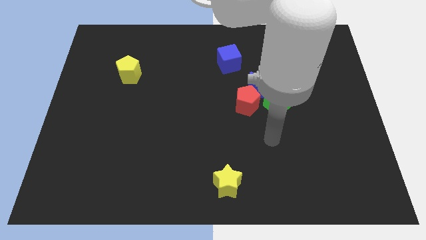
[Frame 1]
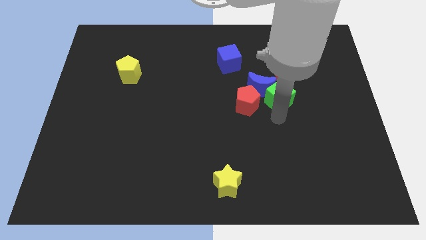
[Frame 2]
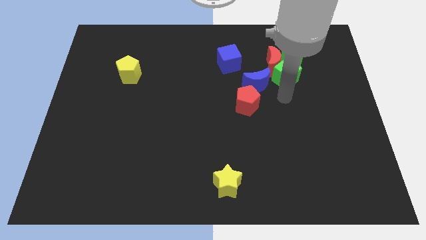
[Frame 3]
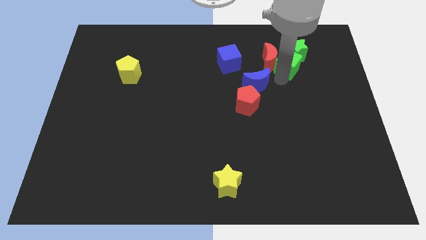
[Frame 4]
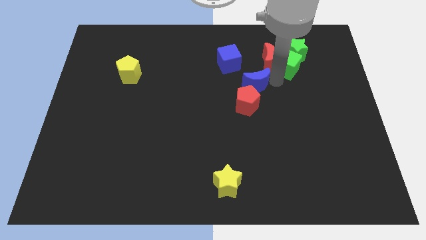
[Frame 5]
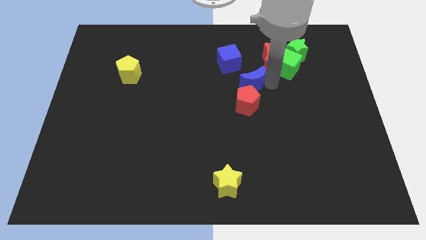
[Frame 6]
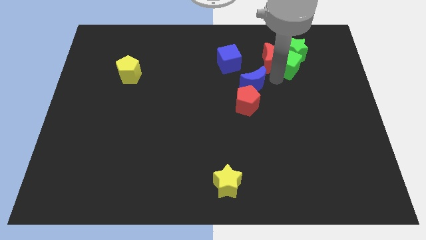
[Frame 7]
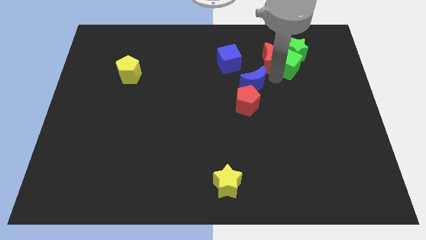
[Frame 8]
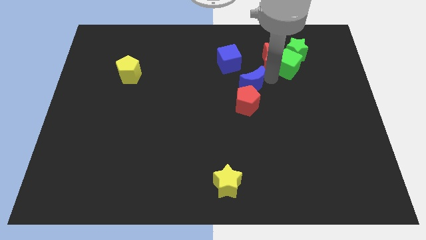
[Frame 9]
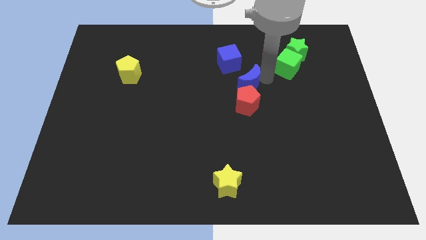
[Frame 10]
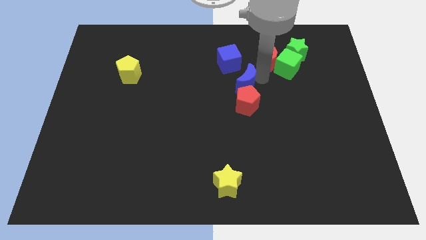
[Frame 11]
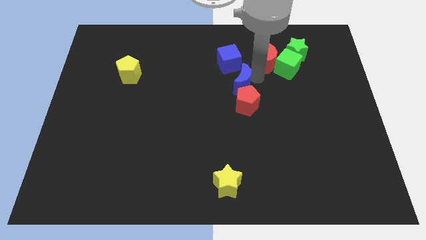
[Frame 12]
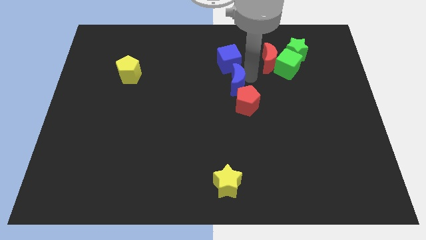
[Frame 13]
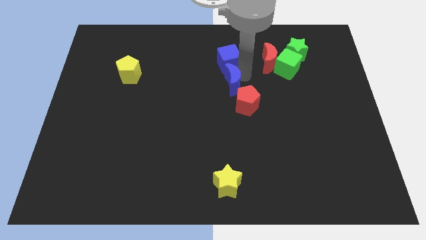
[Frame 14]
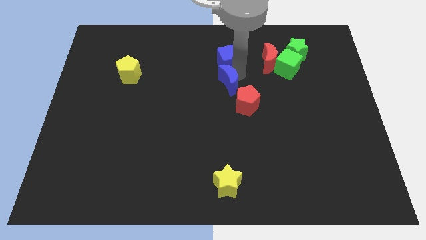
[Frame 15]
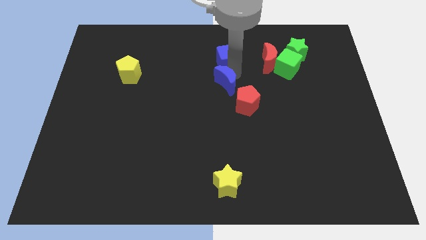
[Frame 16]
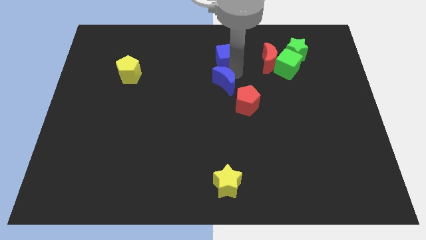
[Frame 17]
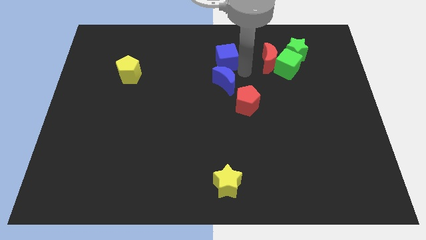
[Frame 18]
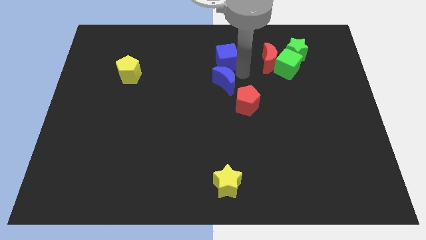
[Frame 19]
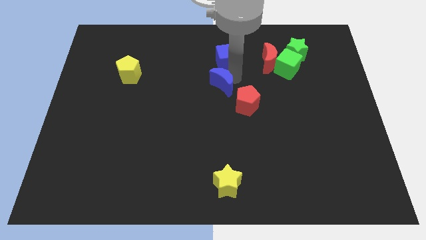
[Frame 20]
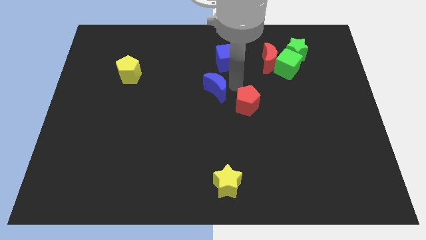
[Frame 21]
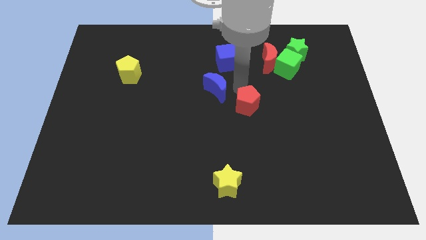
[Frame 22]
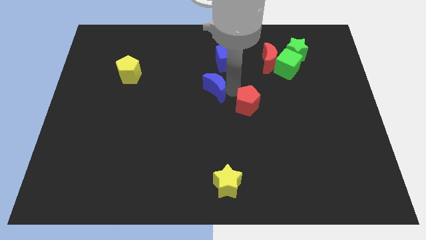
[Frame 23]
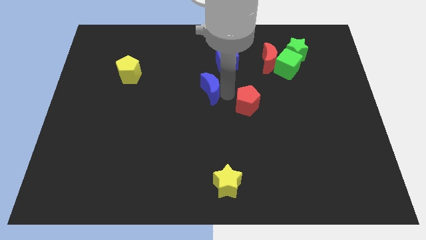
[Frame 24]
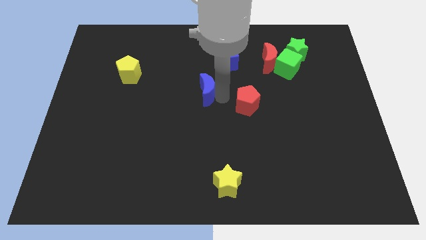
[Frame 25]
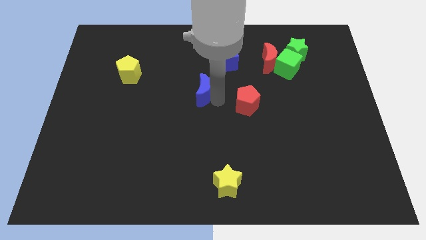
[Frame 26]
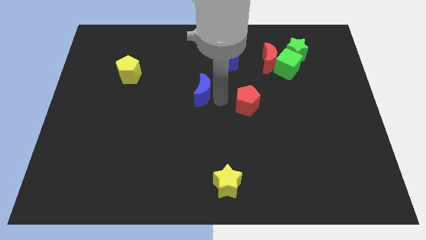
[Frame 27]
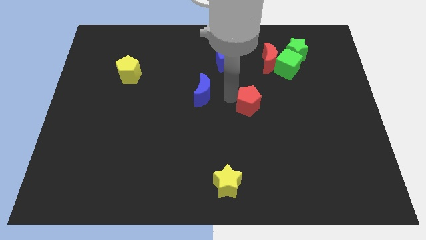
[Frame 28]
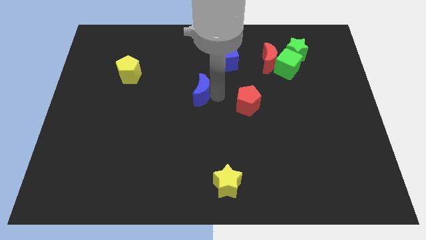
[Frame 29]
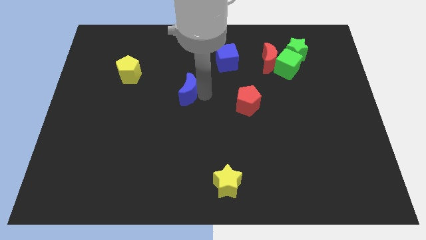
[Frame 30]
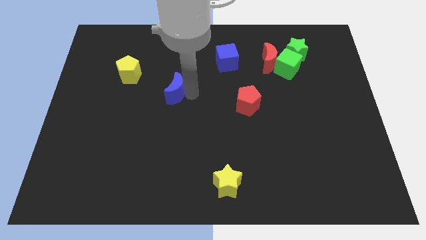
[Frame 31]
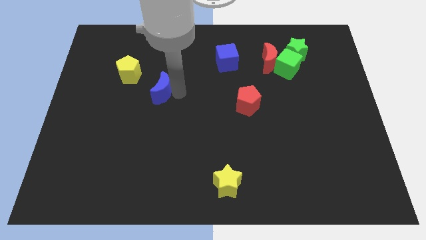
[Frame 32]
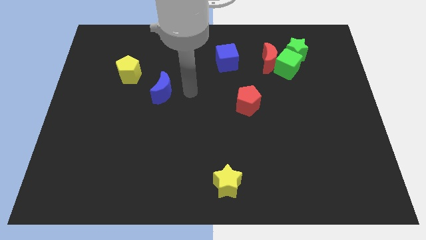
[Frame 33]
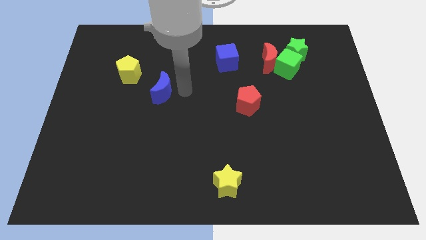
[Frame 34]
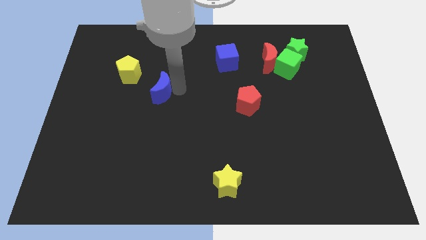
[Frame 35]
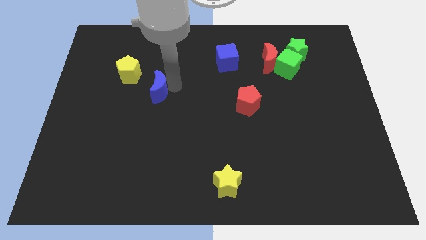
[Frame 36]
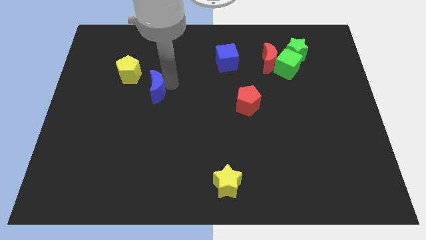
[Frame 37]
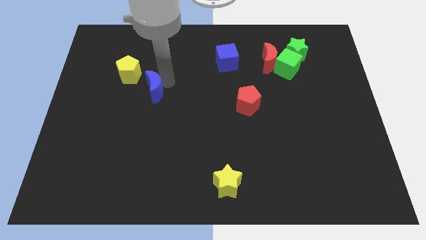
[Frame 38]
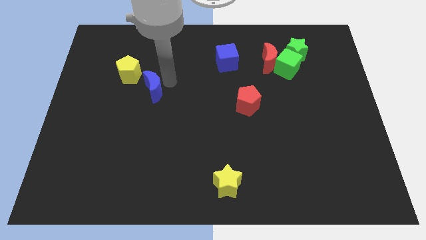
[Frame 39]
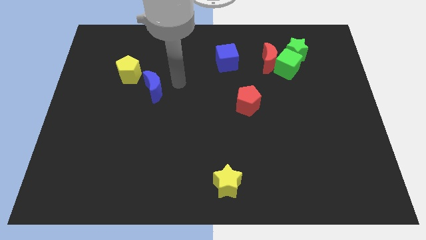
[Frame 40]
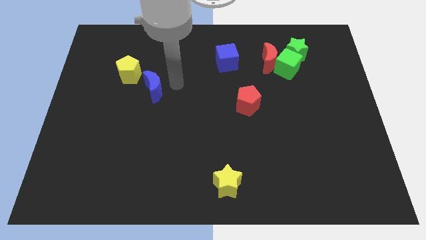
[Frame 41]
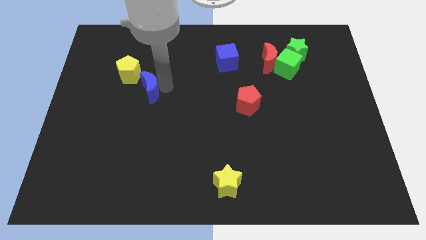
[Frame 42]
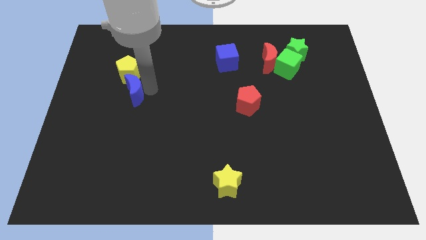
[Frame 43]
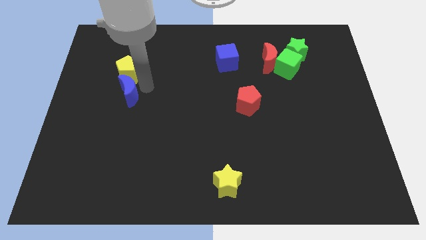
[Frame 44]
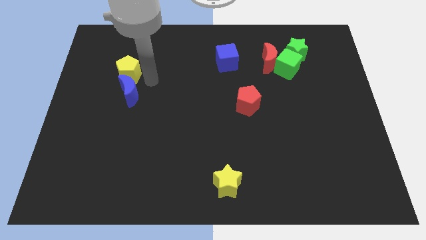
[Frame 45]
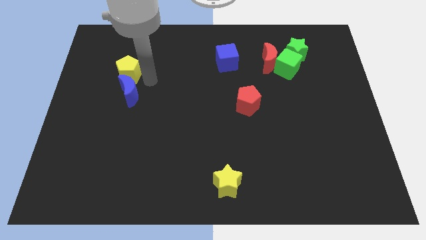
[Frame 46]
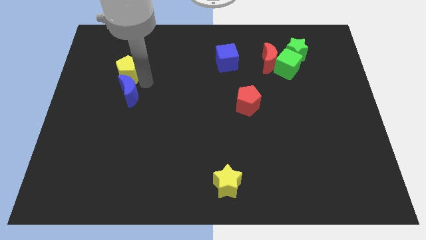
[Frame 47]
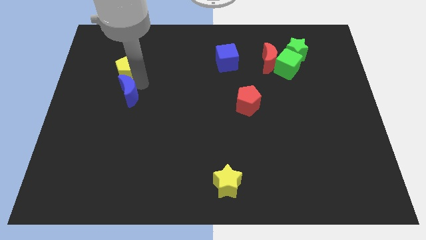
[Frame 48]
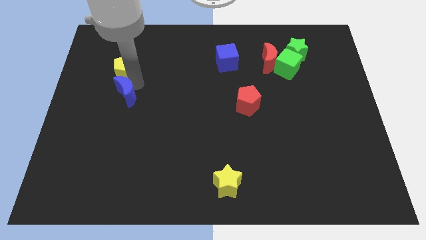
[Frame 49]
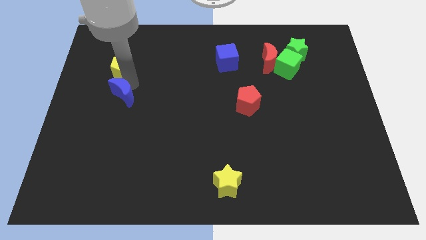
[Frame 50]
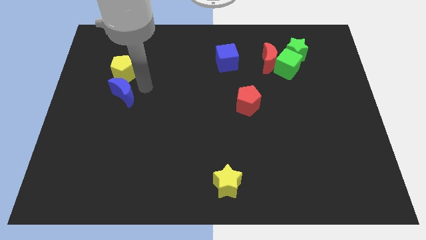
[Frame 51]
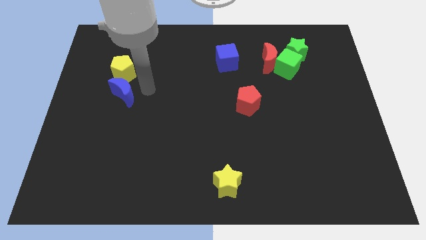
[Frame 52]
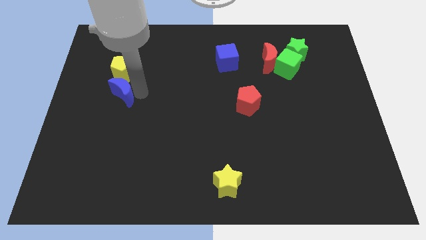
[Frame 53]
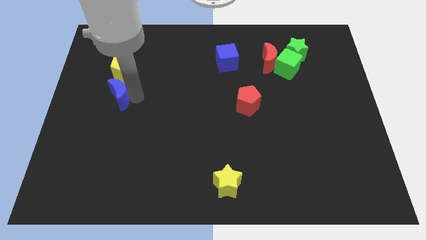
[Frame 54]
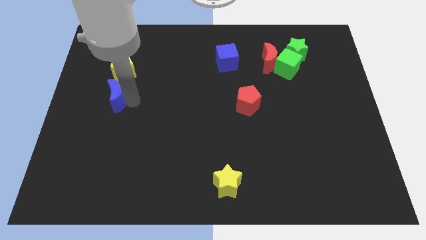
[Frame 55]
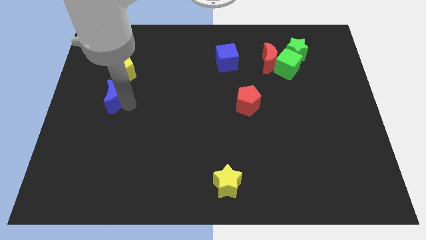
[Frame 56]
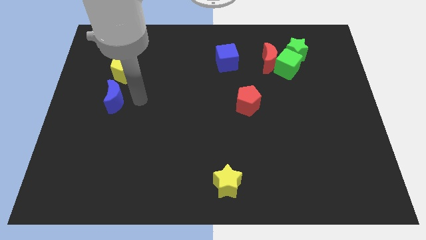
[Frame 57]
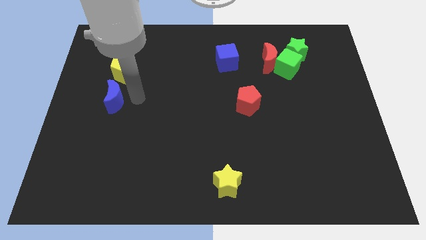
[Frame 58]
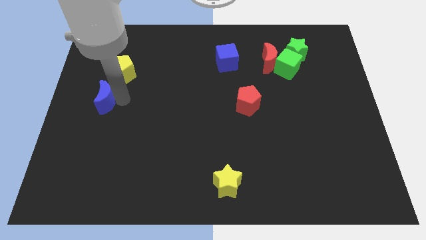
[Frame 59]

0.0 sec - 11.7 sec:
push the blue moon to the left side

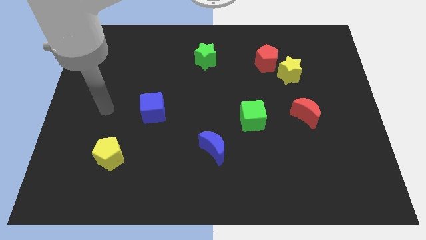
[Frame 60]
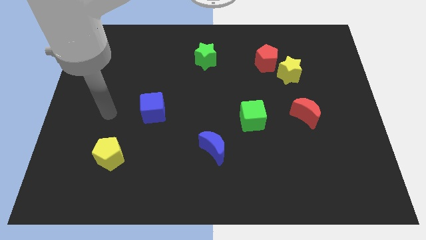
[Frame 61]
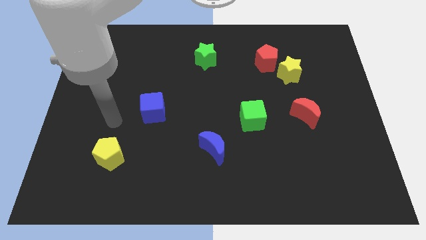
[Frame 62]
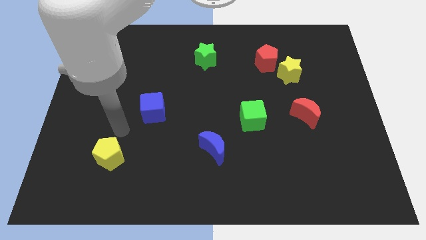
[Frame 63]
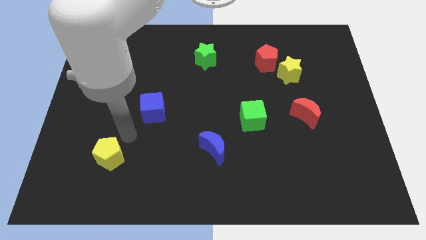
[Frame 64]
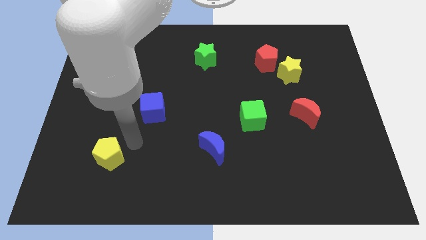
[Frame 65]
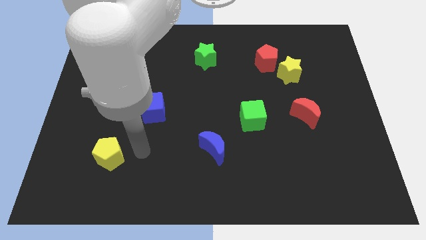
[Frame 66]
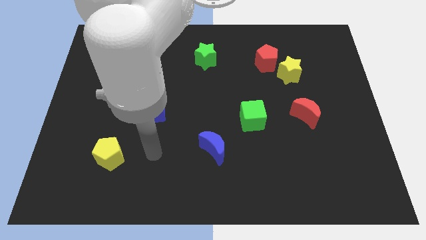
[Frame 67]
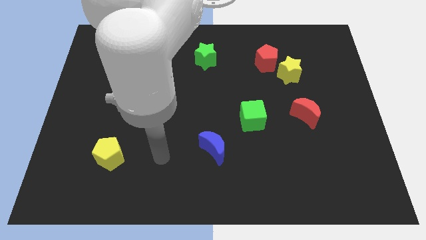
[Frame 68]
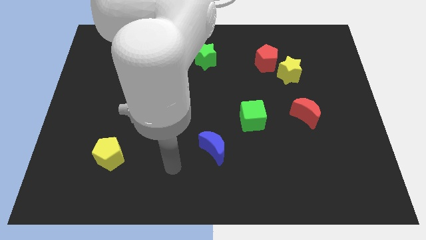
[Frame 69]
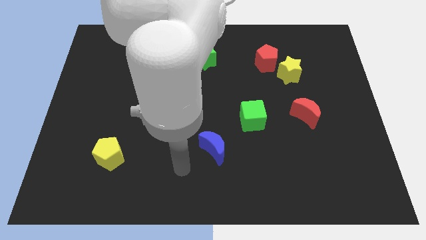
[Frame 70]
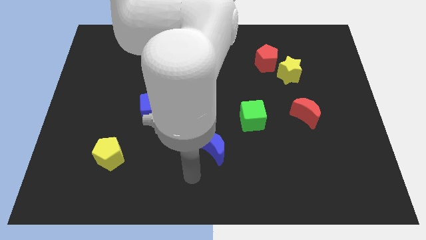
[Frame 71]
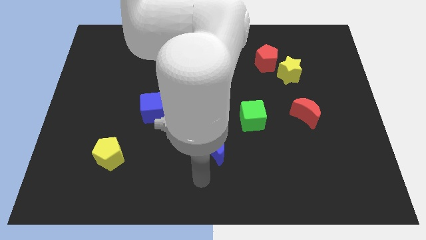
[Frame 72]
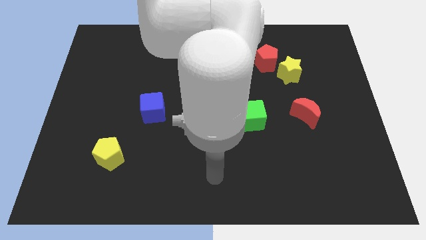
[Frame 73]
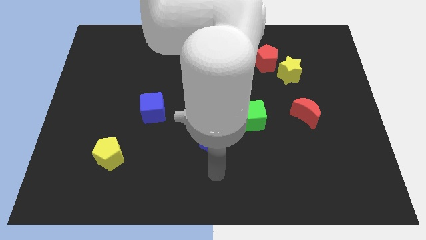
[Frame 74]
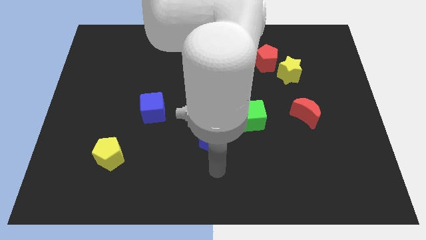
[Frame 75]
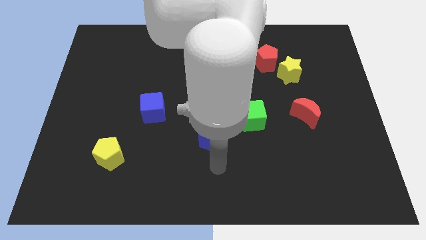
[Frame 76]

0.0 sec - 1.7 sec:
move the blue moon to the middle of the board
